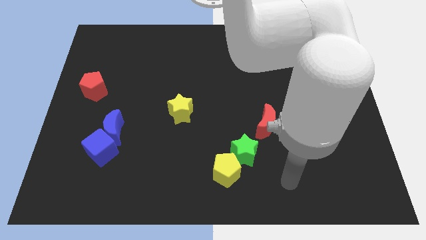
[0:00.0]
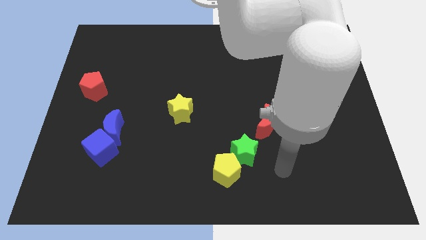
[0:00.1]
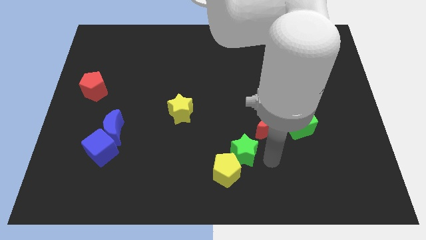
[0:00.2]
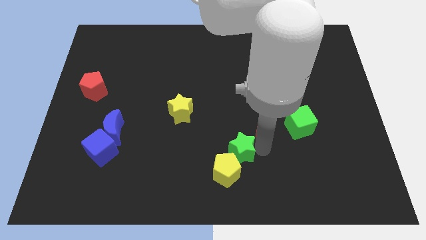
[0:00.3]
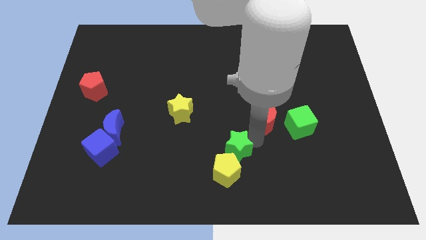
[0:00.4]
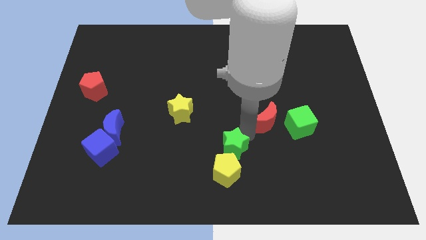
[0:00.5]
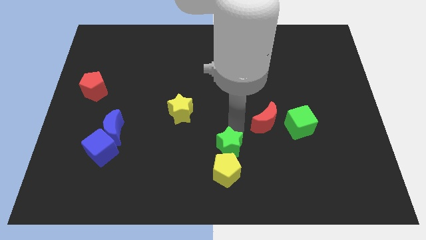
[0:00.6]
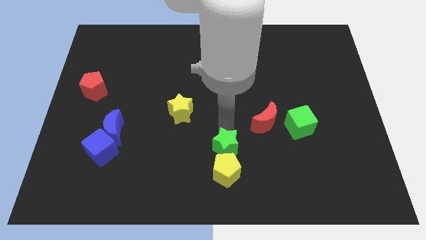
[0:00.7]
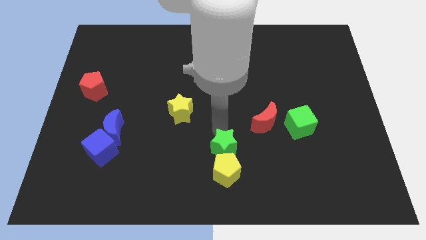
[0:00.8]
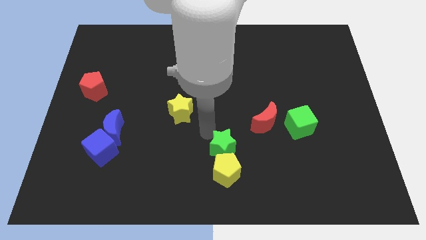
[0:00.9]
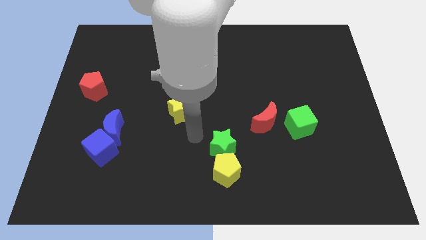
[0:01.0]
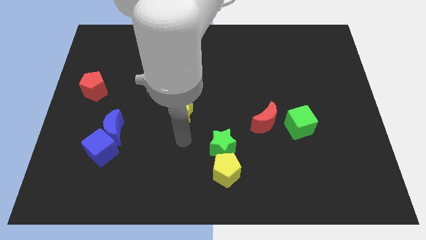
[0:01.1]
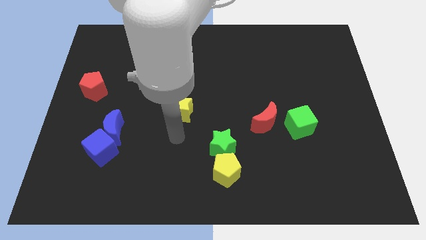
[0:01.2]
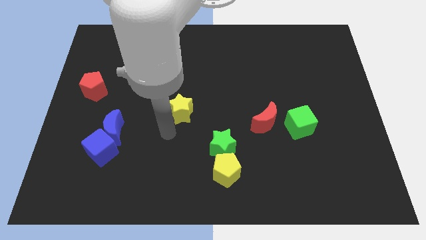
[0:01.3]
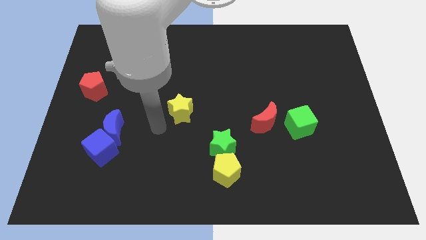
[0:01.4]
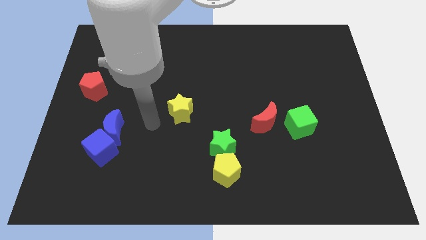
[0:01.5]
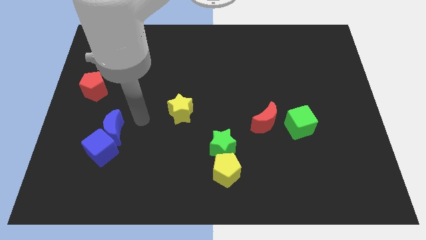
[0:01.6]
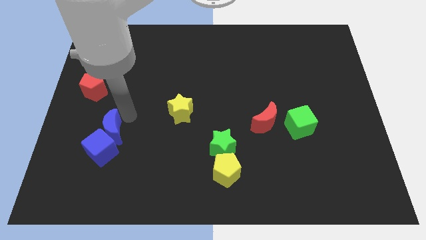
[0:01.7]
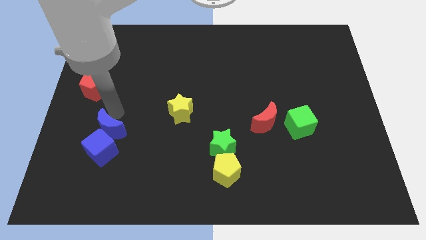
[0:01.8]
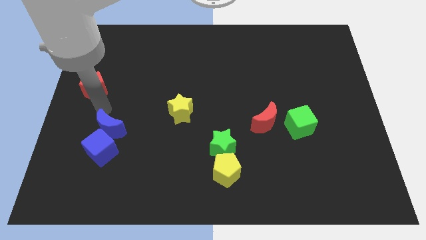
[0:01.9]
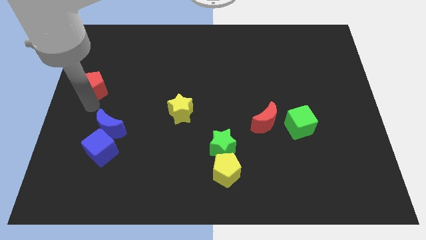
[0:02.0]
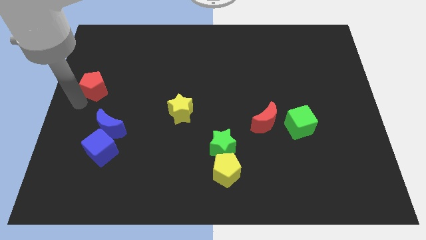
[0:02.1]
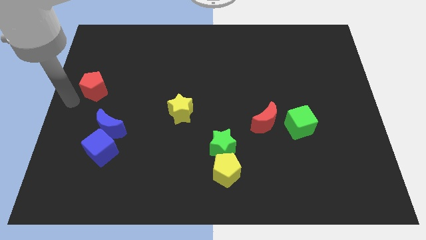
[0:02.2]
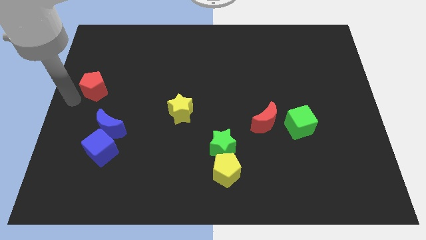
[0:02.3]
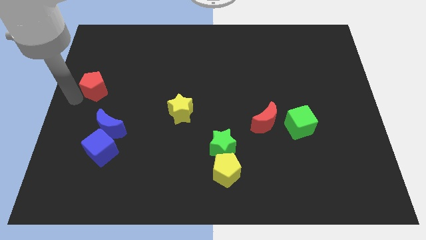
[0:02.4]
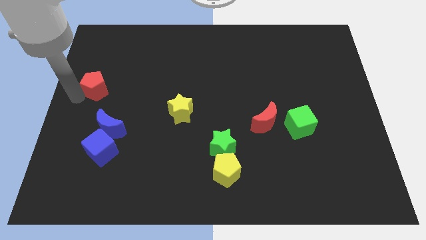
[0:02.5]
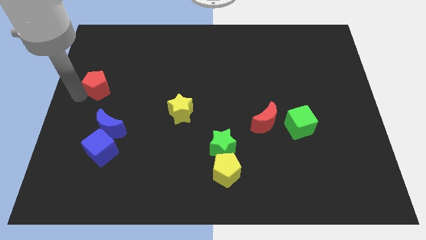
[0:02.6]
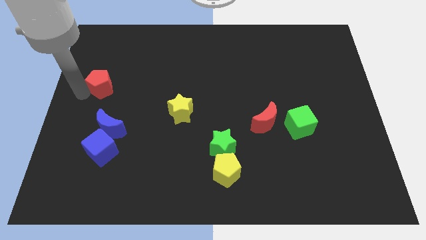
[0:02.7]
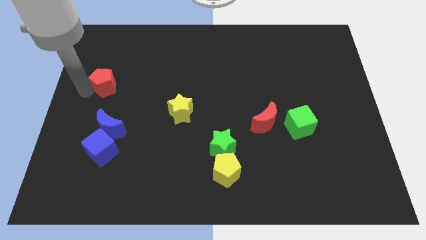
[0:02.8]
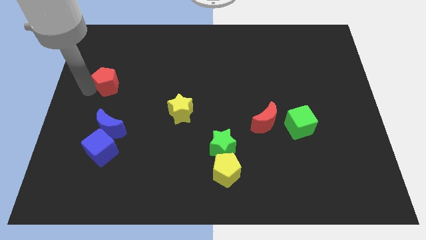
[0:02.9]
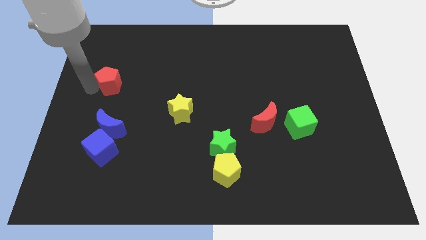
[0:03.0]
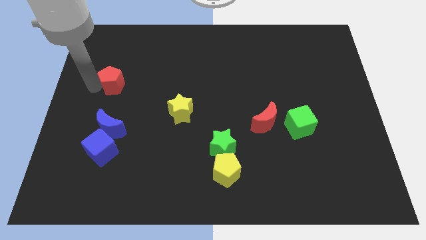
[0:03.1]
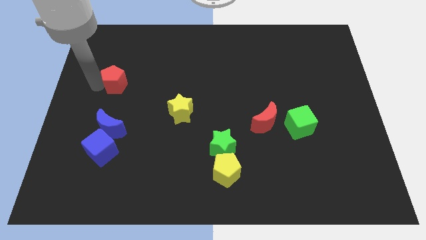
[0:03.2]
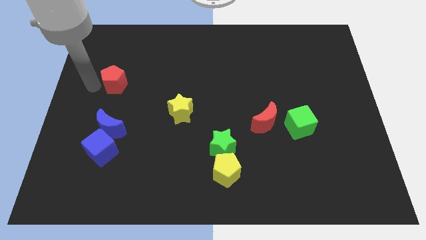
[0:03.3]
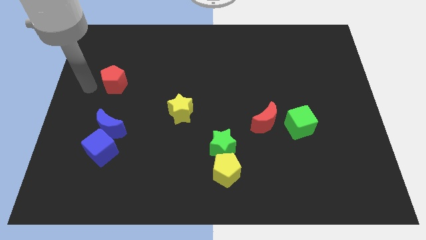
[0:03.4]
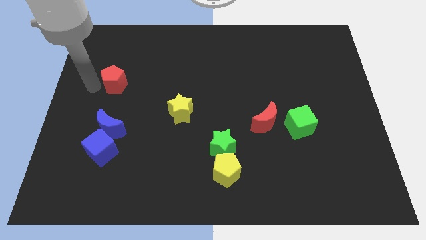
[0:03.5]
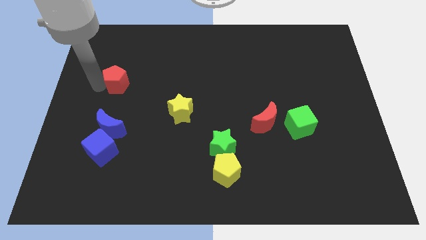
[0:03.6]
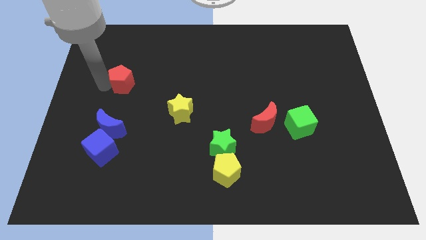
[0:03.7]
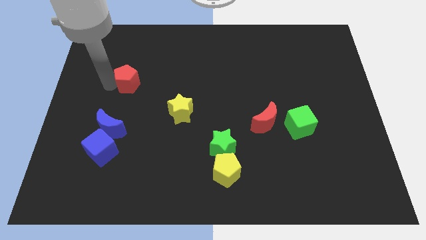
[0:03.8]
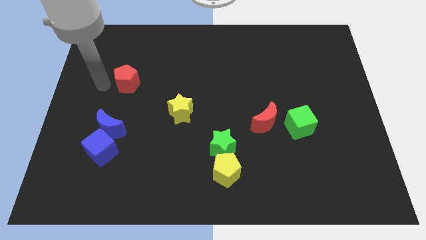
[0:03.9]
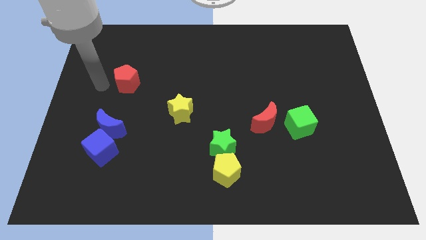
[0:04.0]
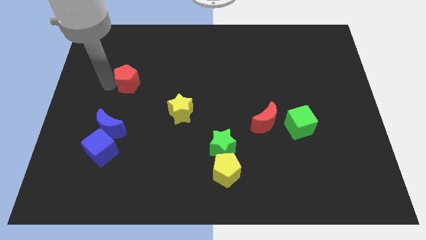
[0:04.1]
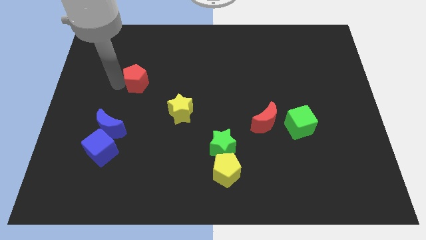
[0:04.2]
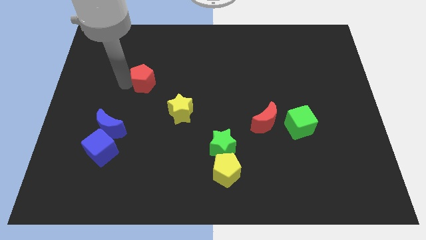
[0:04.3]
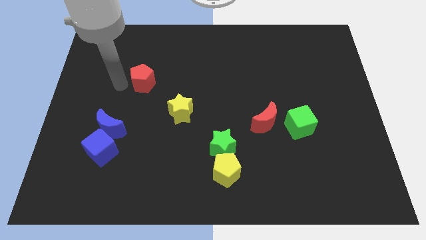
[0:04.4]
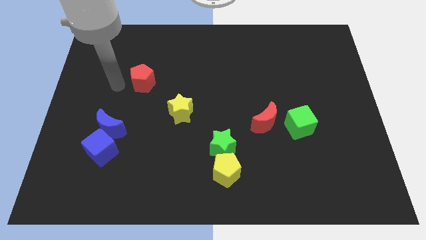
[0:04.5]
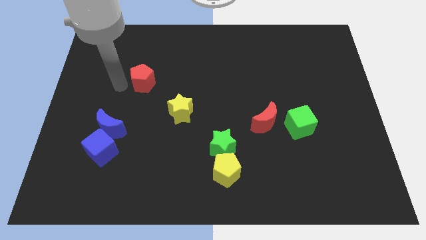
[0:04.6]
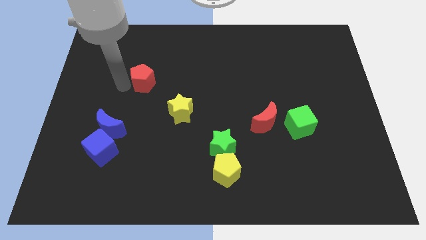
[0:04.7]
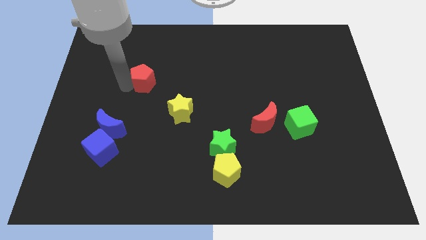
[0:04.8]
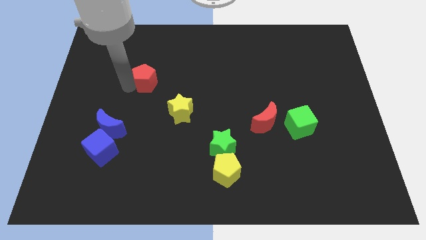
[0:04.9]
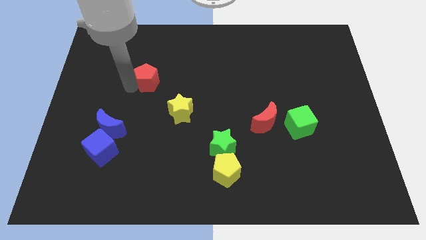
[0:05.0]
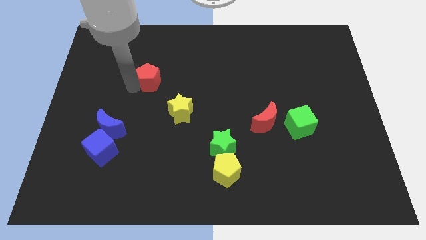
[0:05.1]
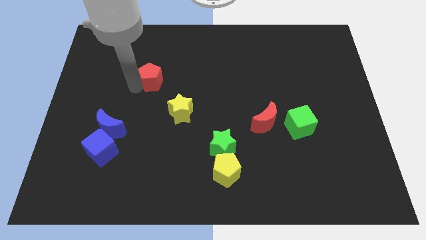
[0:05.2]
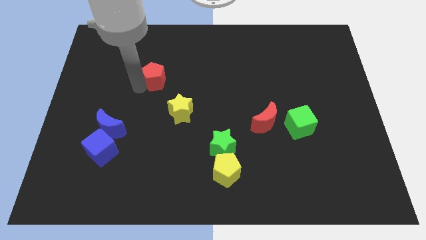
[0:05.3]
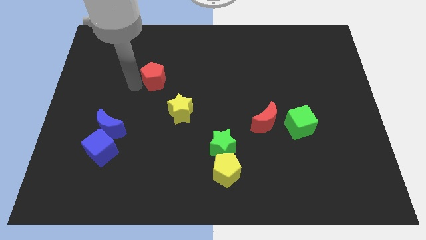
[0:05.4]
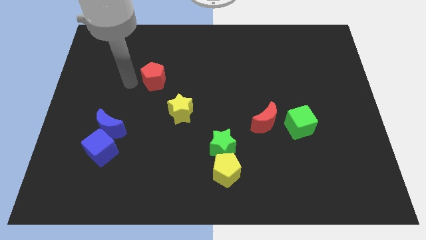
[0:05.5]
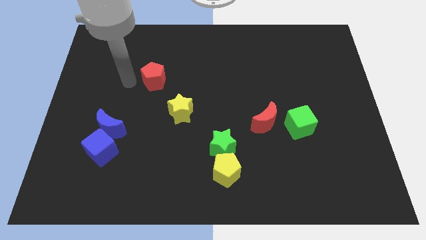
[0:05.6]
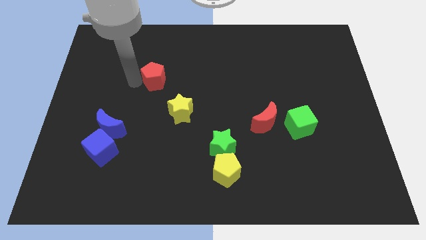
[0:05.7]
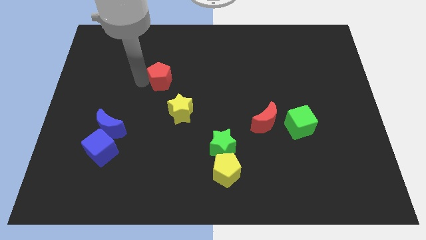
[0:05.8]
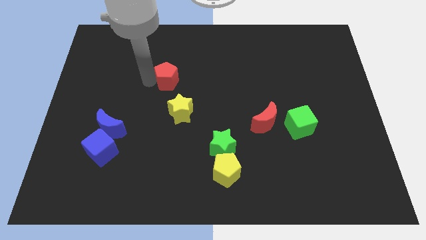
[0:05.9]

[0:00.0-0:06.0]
put the red pentagon above the yellow star

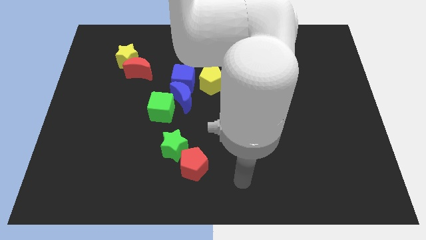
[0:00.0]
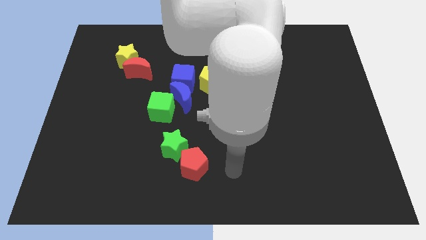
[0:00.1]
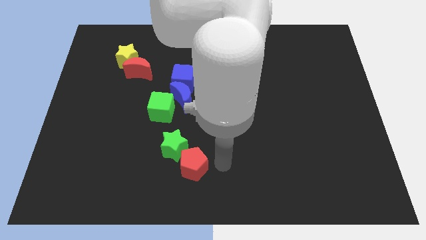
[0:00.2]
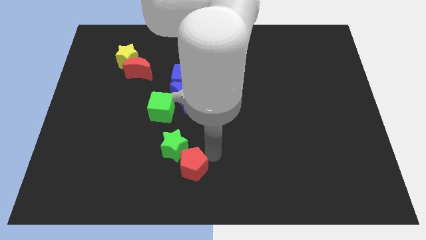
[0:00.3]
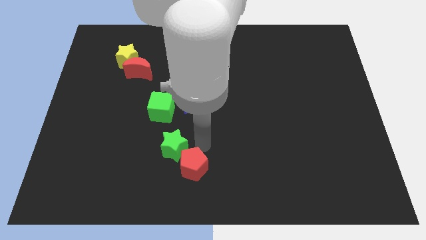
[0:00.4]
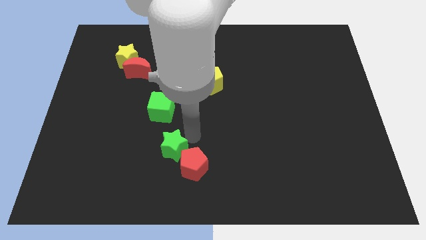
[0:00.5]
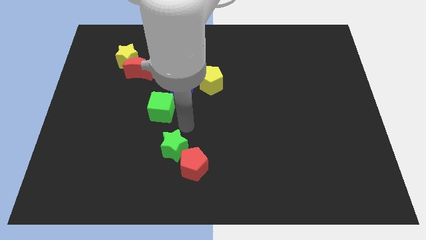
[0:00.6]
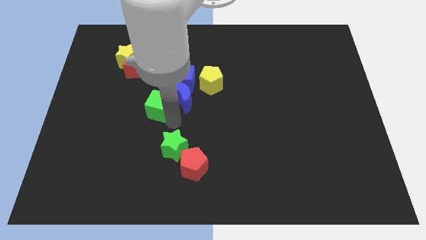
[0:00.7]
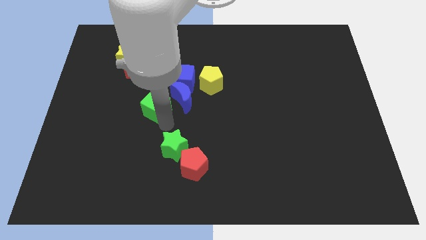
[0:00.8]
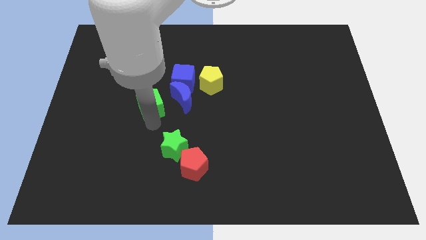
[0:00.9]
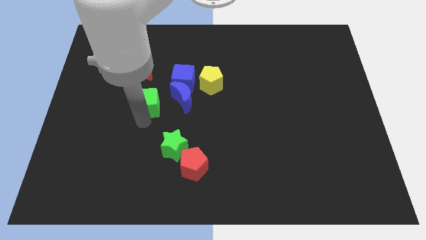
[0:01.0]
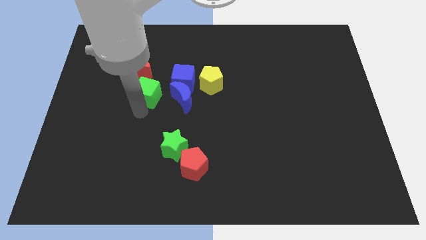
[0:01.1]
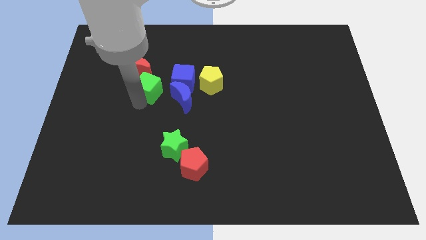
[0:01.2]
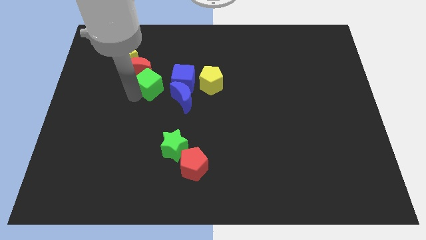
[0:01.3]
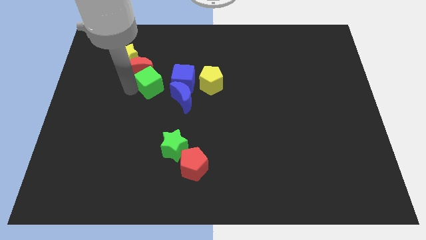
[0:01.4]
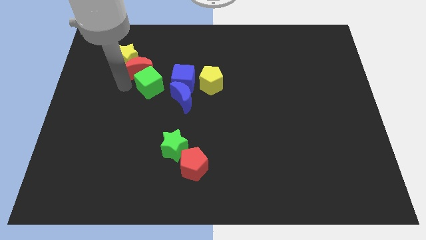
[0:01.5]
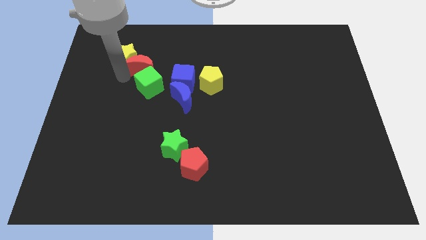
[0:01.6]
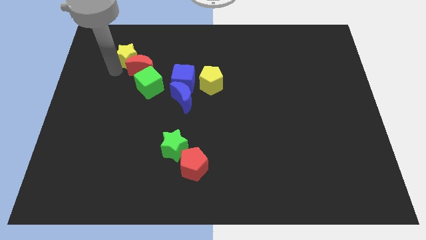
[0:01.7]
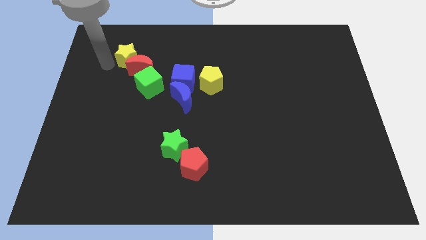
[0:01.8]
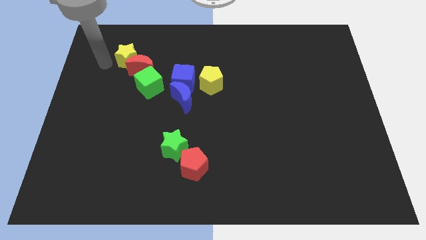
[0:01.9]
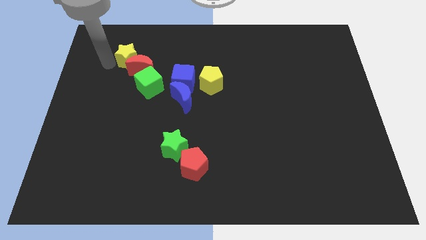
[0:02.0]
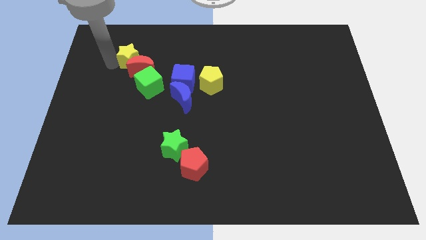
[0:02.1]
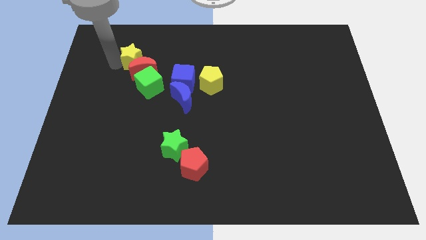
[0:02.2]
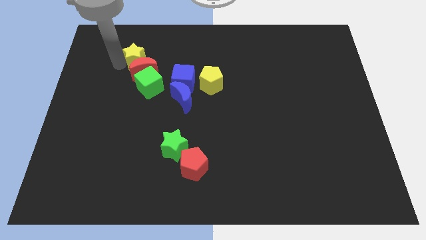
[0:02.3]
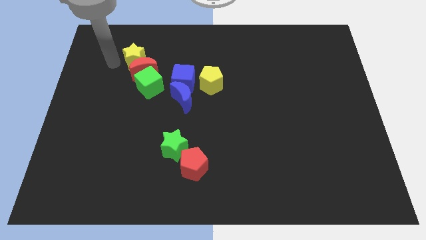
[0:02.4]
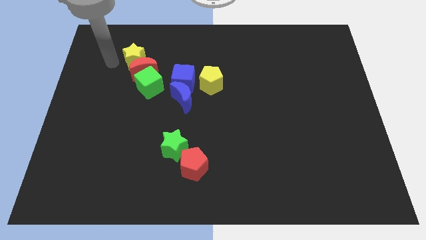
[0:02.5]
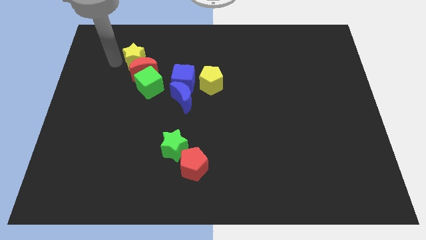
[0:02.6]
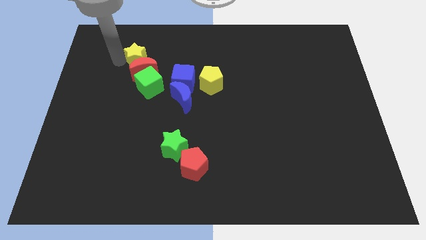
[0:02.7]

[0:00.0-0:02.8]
push the yellow star to the top right side of the red moon
